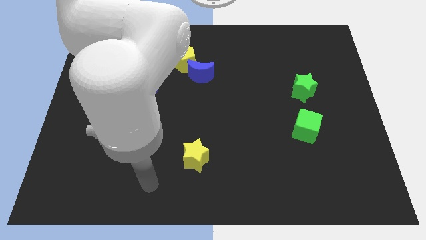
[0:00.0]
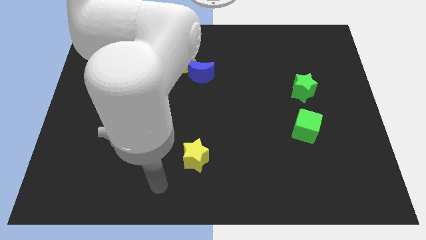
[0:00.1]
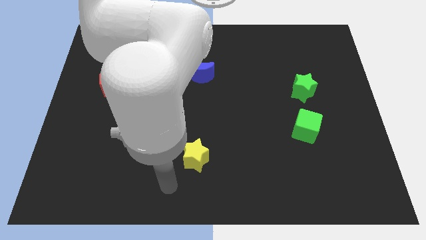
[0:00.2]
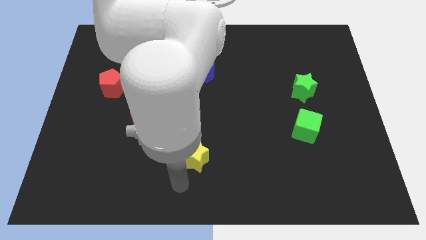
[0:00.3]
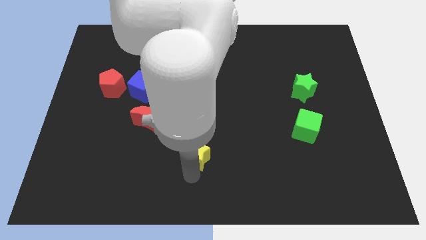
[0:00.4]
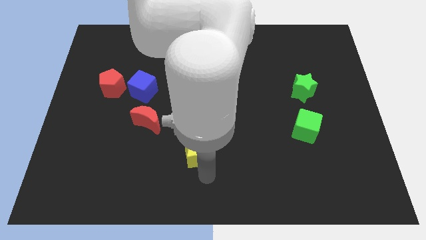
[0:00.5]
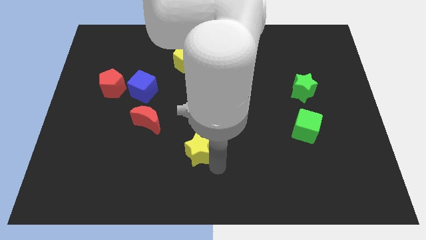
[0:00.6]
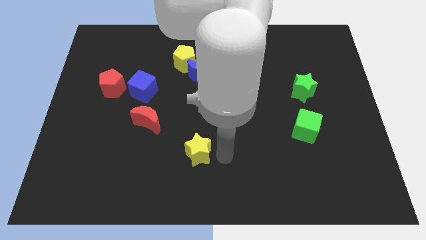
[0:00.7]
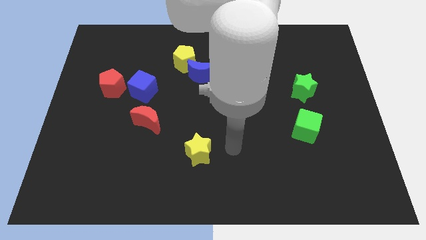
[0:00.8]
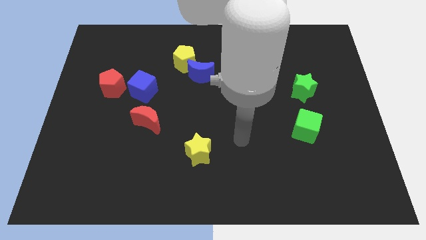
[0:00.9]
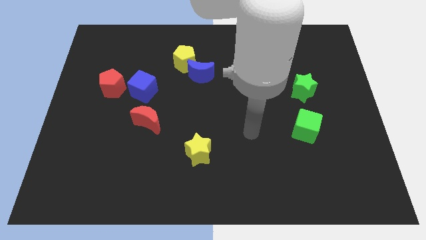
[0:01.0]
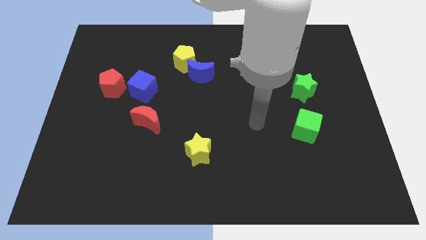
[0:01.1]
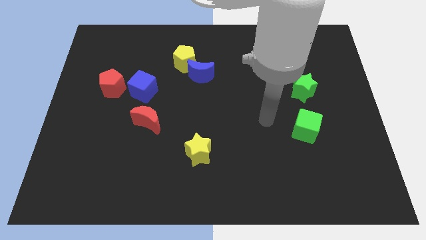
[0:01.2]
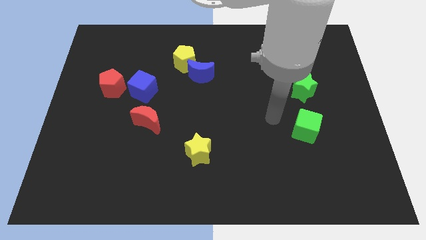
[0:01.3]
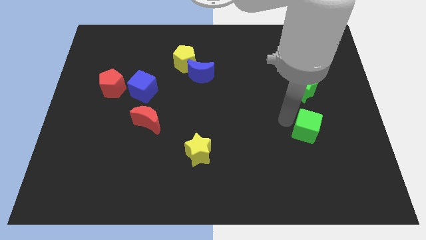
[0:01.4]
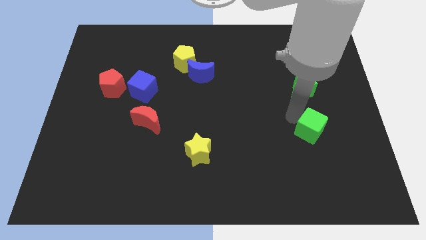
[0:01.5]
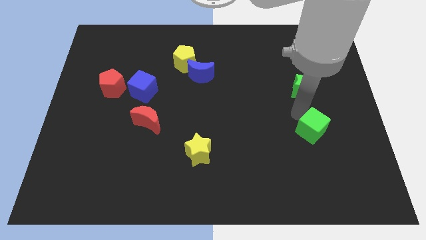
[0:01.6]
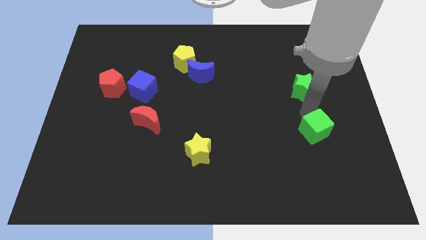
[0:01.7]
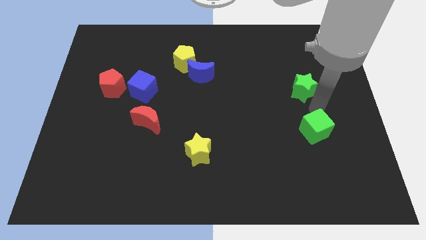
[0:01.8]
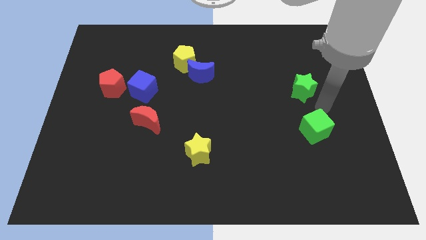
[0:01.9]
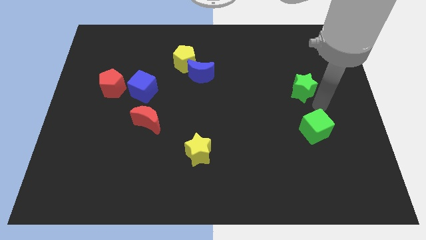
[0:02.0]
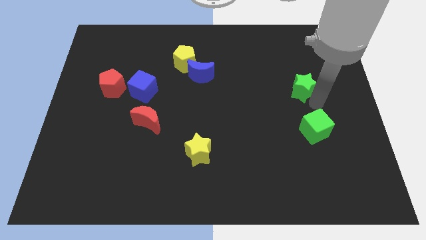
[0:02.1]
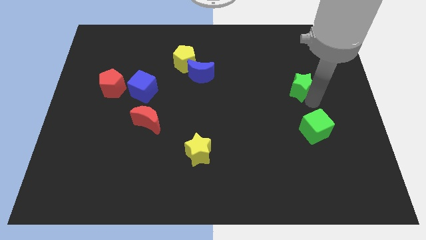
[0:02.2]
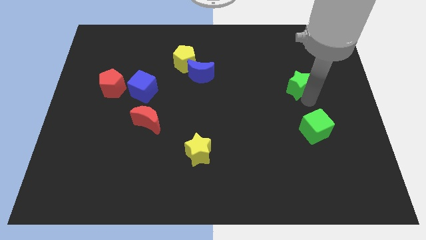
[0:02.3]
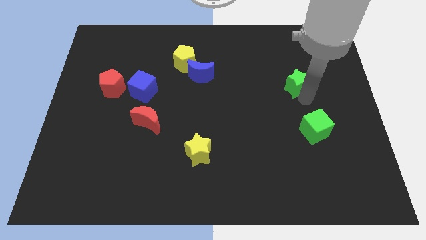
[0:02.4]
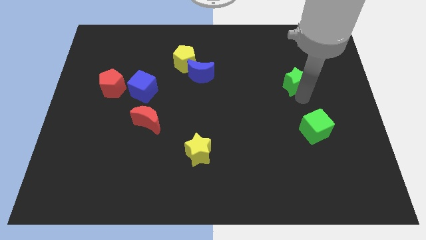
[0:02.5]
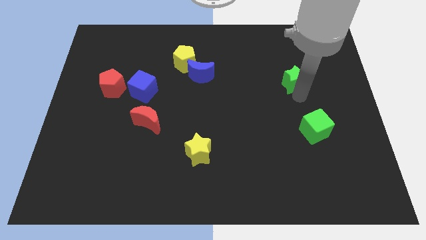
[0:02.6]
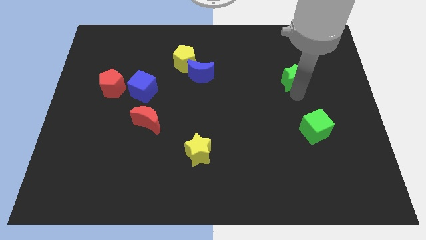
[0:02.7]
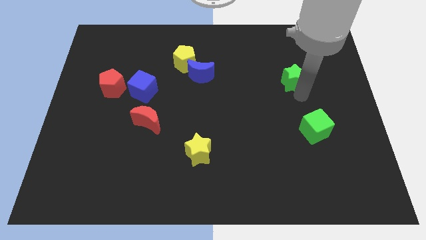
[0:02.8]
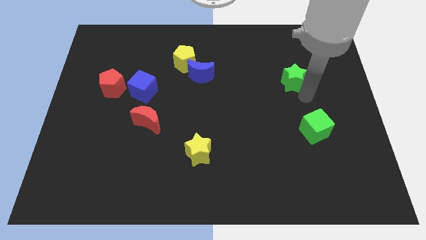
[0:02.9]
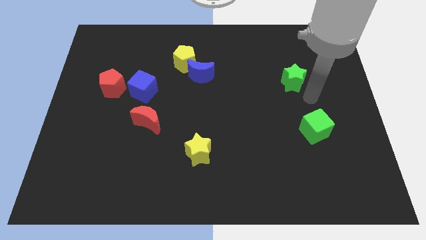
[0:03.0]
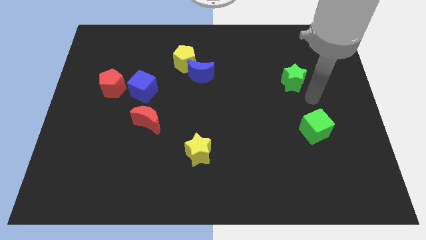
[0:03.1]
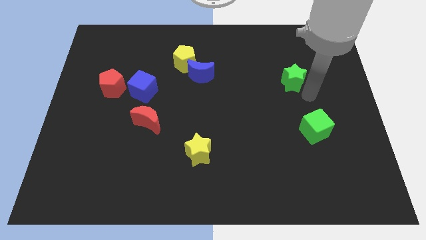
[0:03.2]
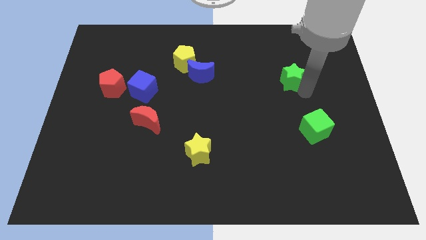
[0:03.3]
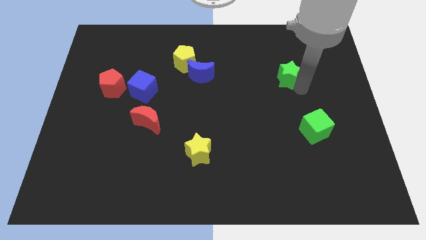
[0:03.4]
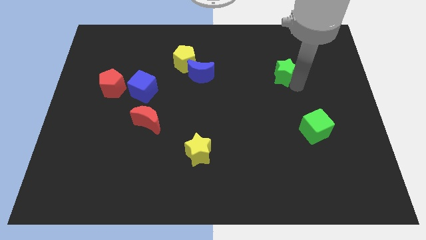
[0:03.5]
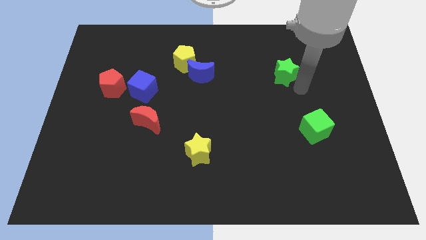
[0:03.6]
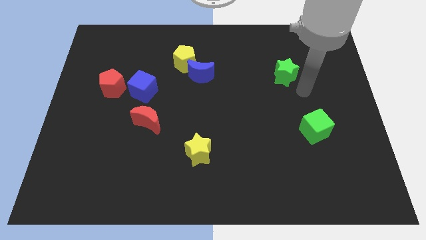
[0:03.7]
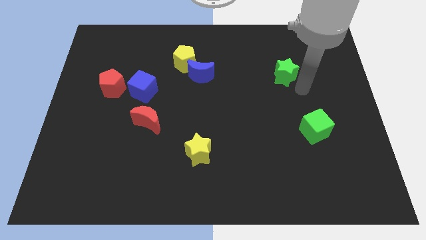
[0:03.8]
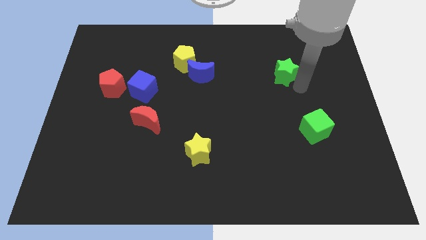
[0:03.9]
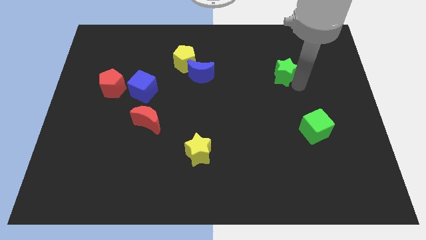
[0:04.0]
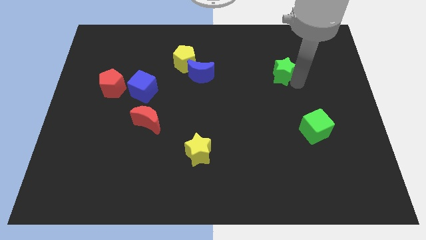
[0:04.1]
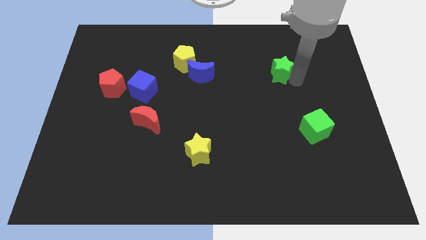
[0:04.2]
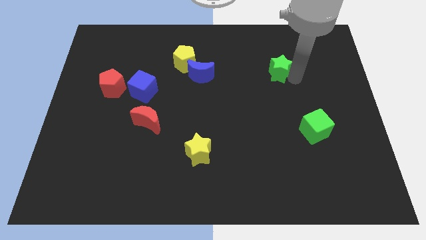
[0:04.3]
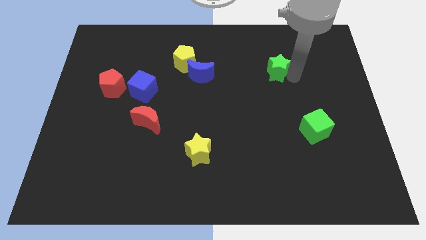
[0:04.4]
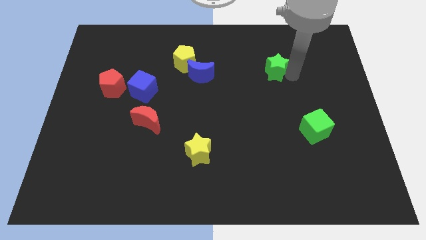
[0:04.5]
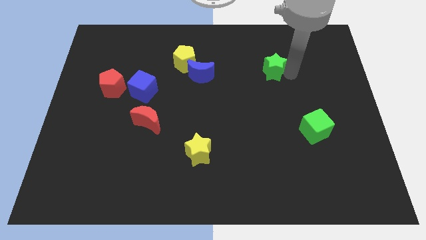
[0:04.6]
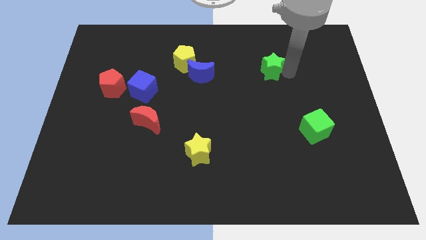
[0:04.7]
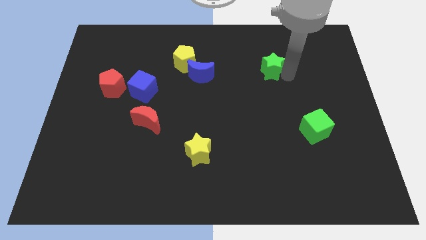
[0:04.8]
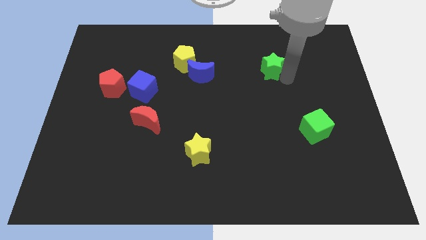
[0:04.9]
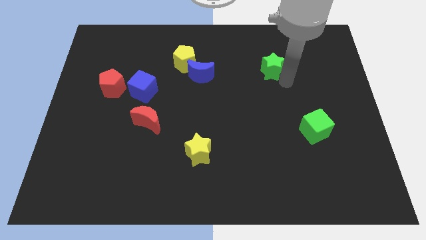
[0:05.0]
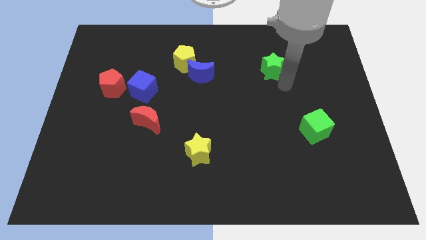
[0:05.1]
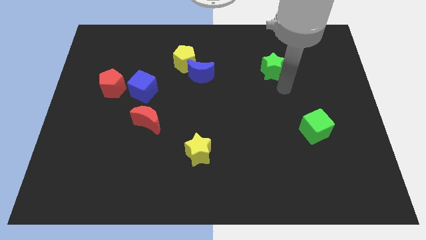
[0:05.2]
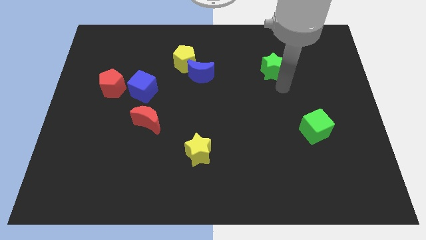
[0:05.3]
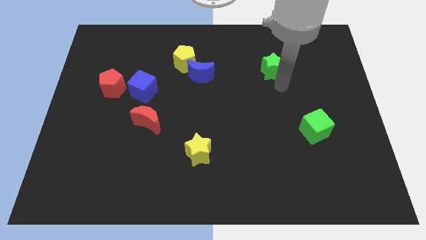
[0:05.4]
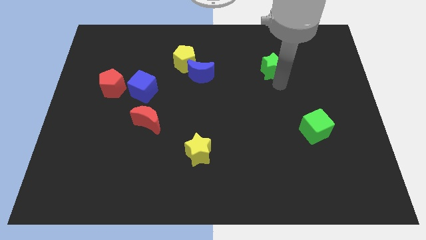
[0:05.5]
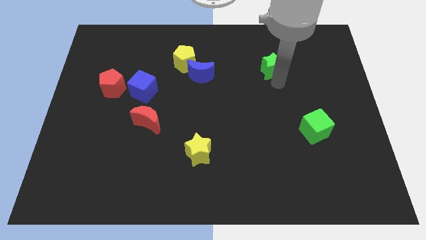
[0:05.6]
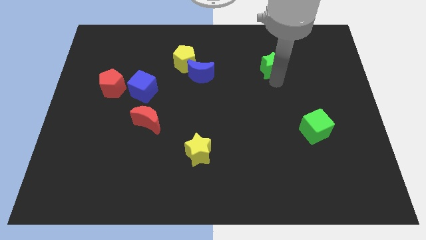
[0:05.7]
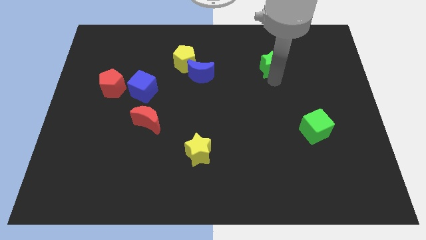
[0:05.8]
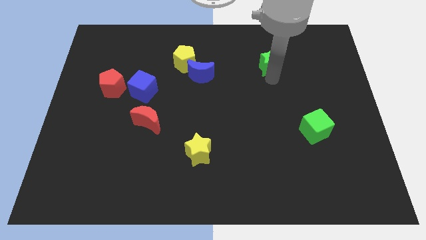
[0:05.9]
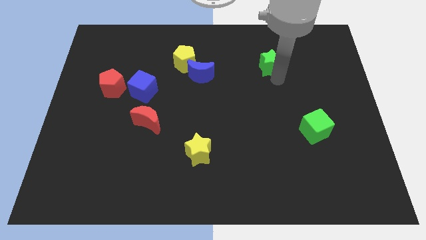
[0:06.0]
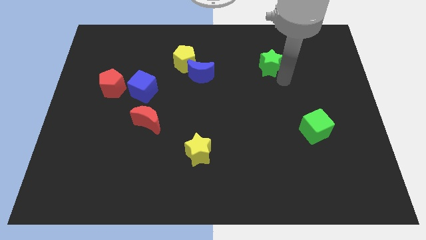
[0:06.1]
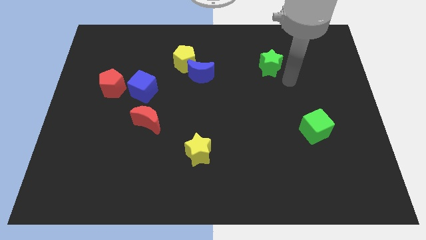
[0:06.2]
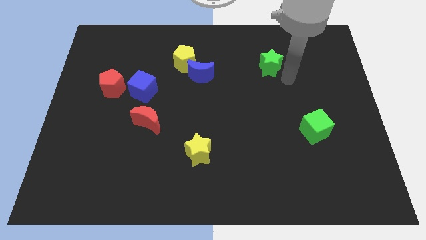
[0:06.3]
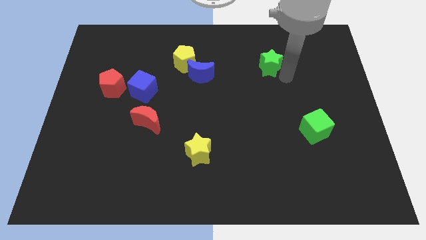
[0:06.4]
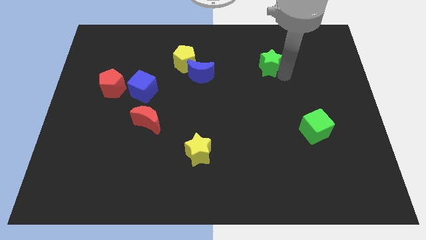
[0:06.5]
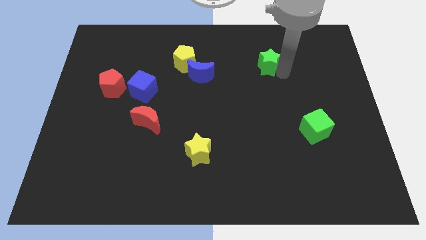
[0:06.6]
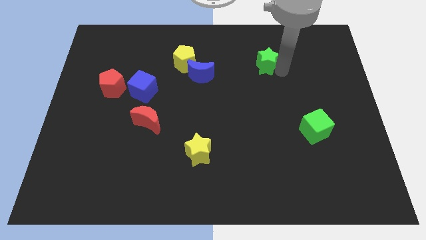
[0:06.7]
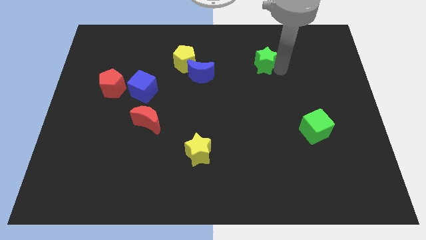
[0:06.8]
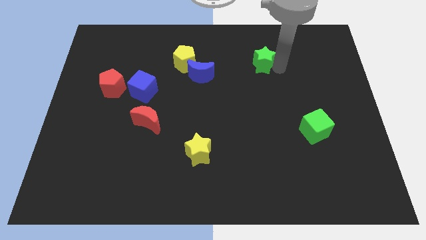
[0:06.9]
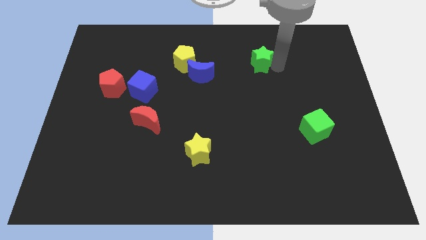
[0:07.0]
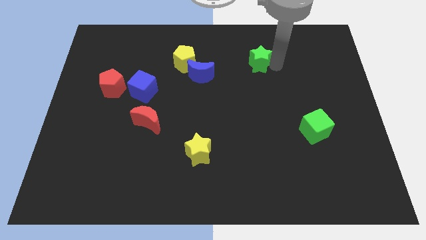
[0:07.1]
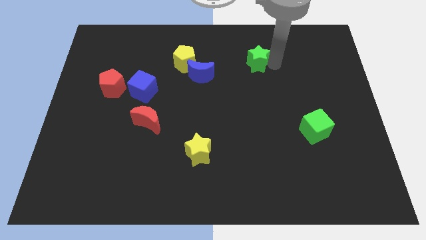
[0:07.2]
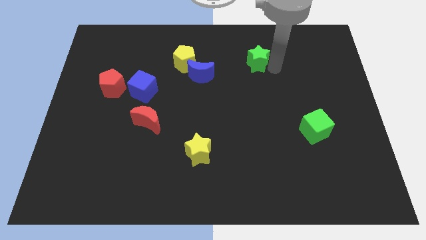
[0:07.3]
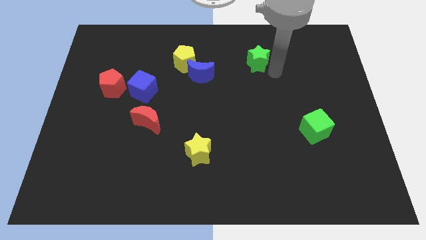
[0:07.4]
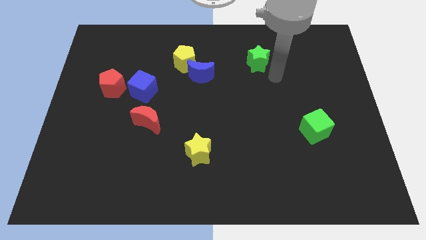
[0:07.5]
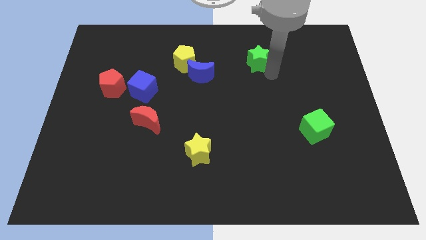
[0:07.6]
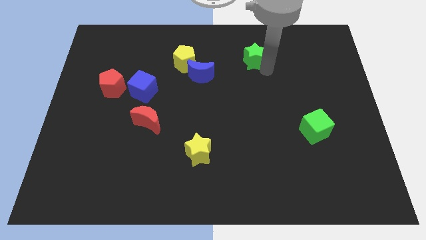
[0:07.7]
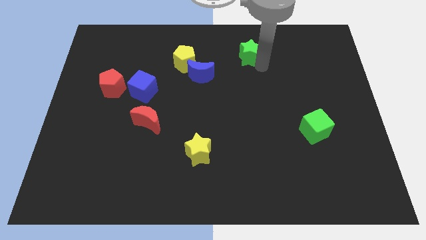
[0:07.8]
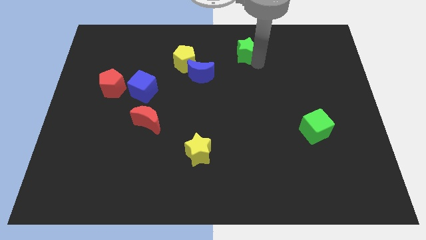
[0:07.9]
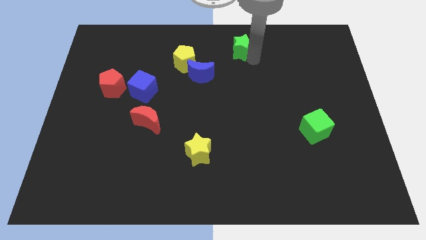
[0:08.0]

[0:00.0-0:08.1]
put the green star to the top side

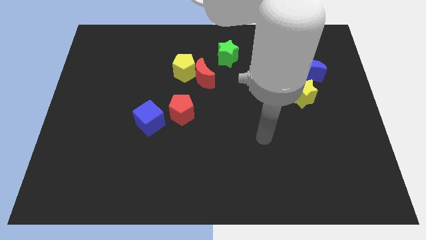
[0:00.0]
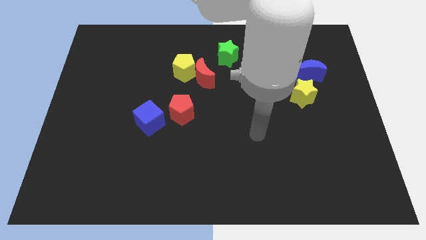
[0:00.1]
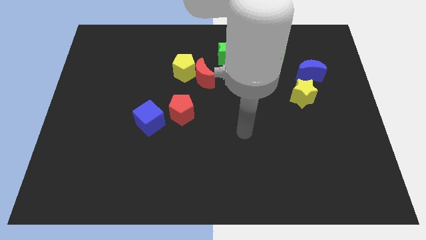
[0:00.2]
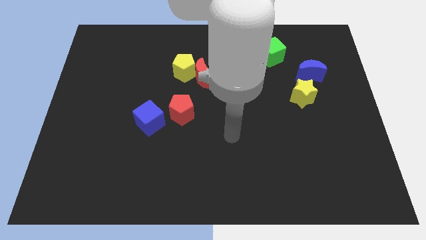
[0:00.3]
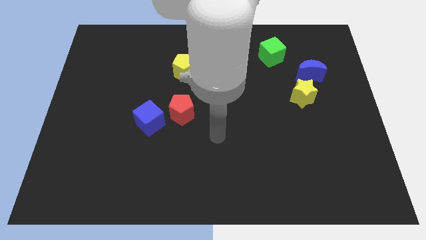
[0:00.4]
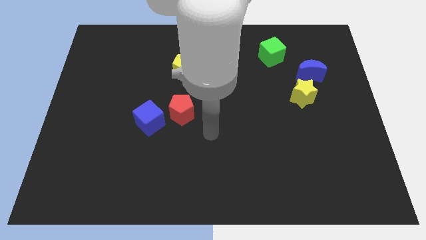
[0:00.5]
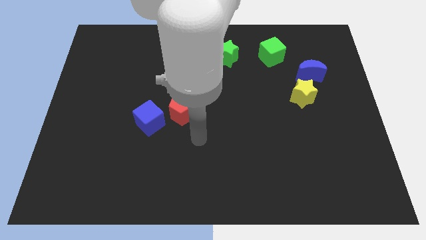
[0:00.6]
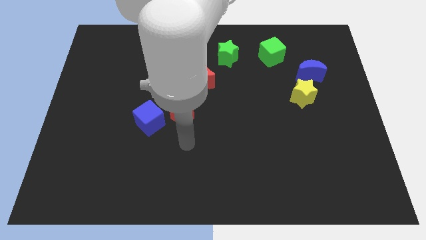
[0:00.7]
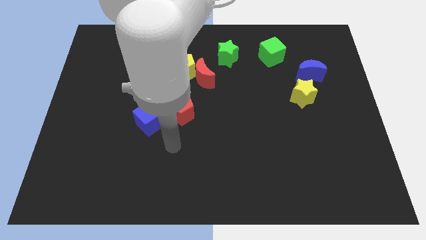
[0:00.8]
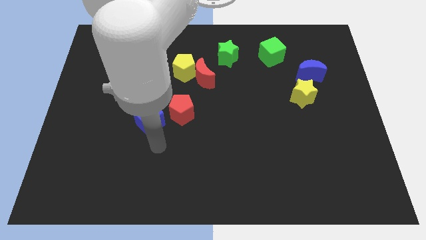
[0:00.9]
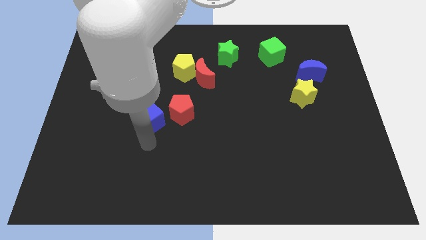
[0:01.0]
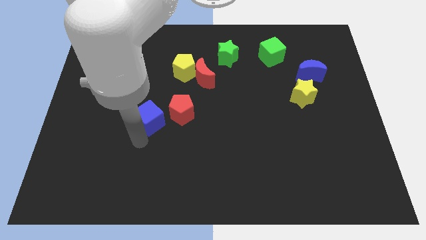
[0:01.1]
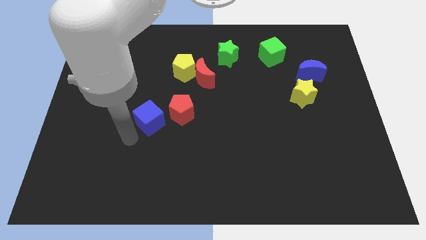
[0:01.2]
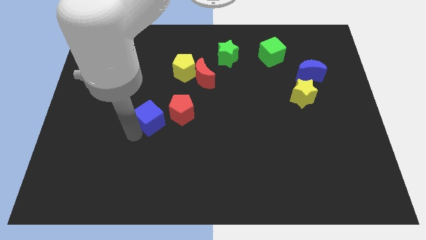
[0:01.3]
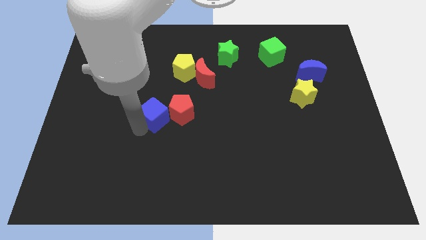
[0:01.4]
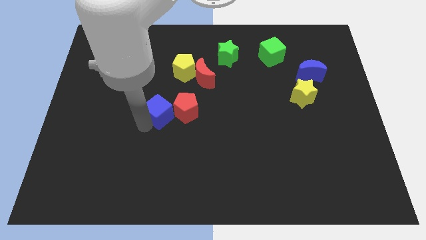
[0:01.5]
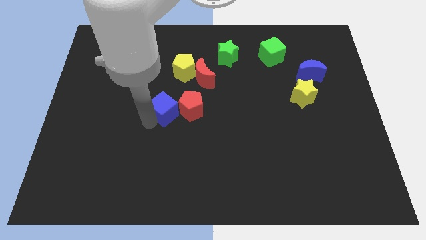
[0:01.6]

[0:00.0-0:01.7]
move the blue cube to the middle of the board
